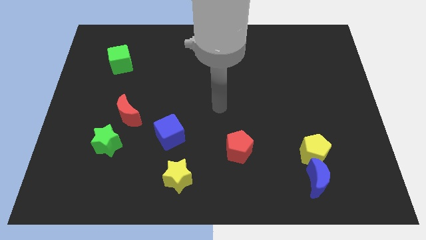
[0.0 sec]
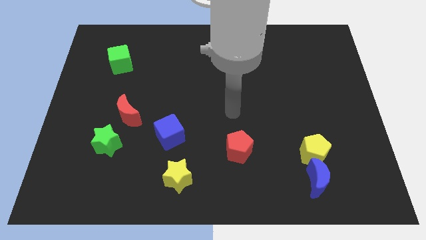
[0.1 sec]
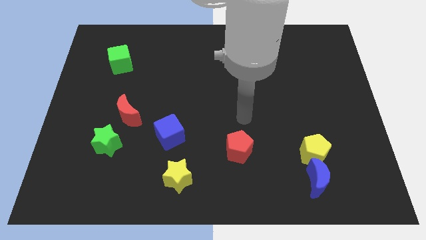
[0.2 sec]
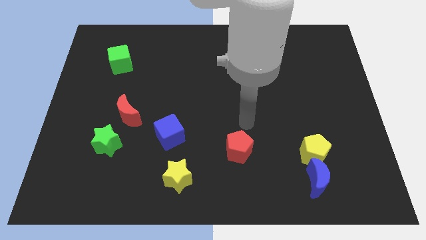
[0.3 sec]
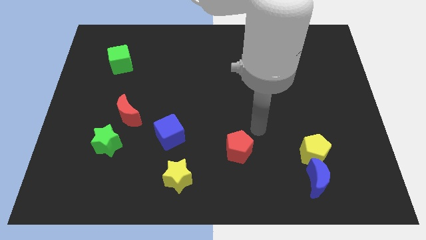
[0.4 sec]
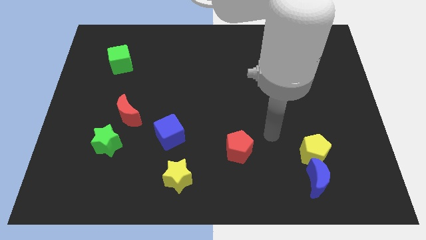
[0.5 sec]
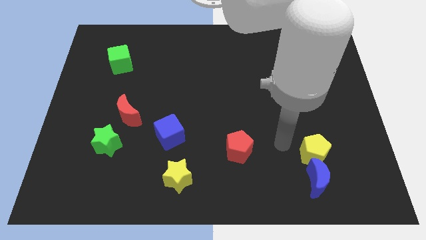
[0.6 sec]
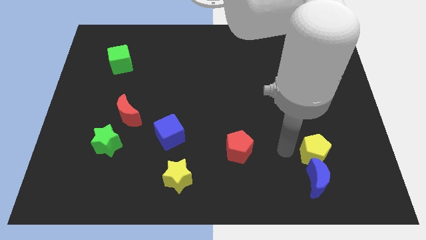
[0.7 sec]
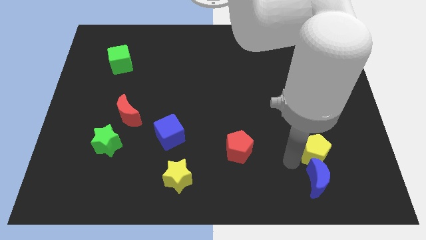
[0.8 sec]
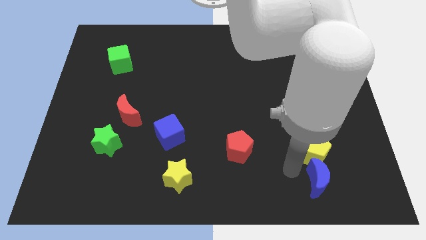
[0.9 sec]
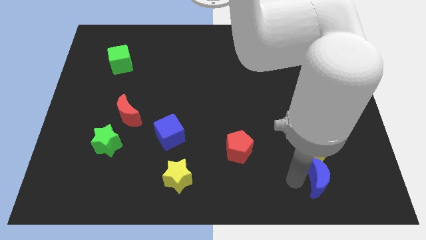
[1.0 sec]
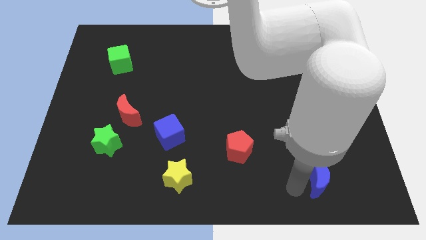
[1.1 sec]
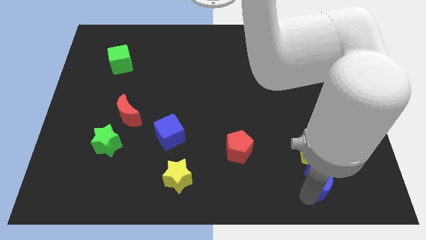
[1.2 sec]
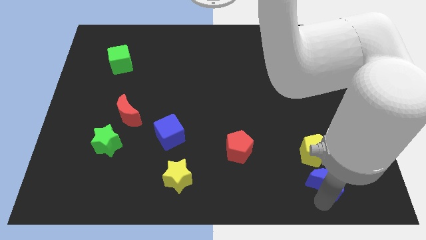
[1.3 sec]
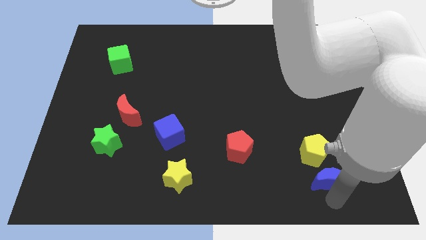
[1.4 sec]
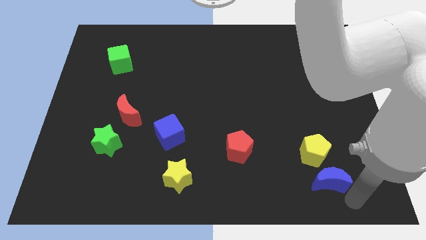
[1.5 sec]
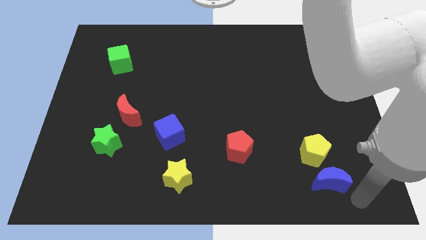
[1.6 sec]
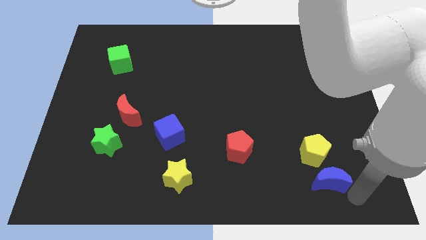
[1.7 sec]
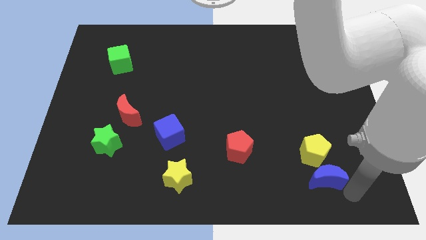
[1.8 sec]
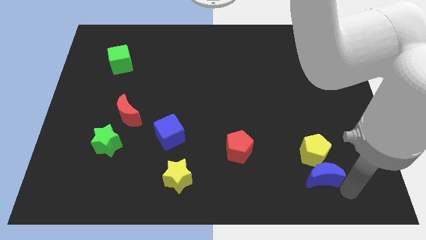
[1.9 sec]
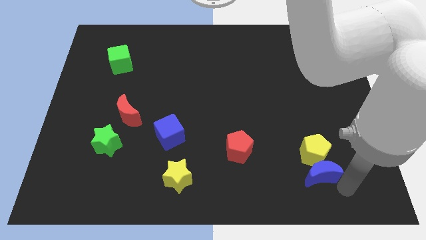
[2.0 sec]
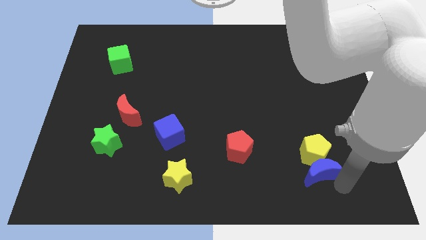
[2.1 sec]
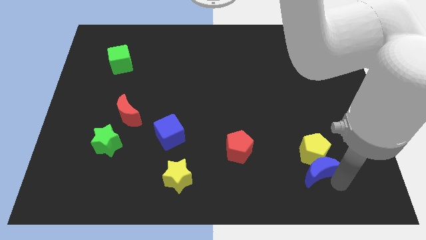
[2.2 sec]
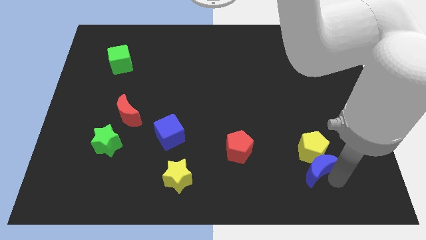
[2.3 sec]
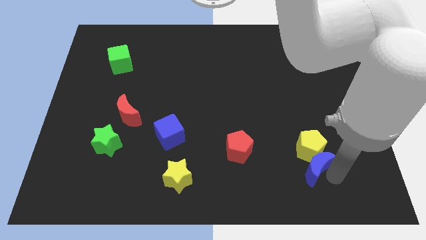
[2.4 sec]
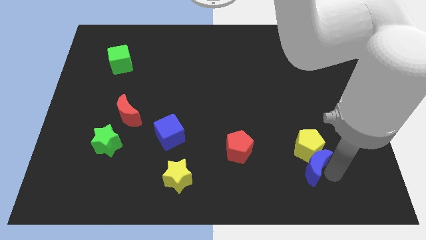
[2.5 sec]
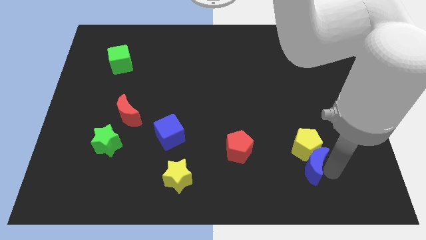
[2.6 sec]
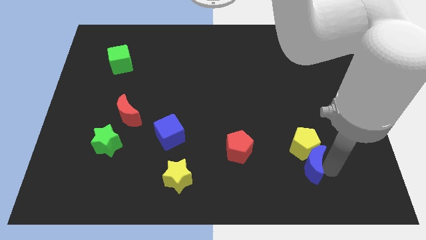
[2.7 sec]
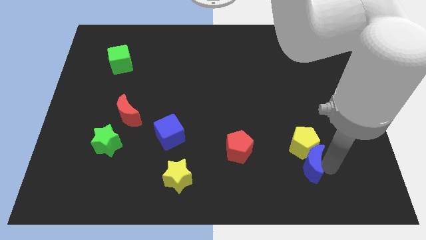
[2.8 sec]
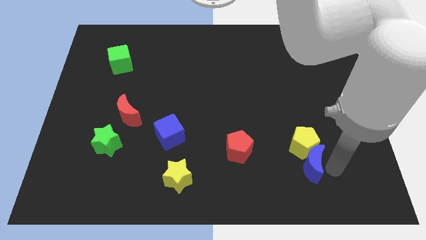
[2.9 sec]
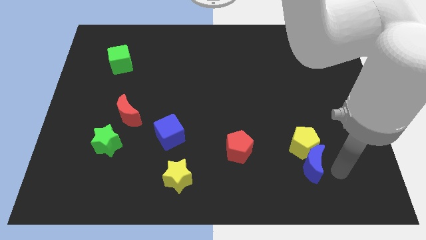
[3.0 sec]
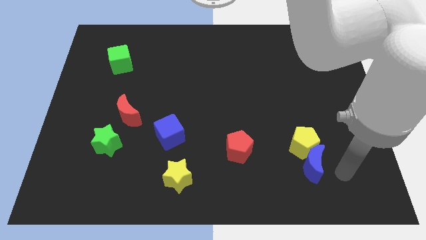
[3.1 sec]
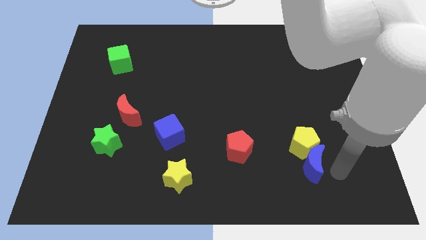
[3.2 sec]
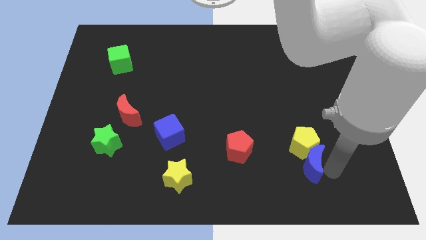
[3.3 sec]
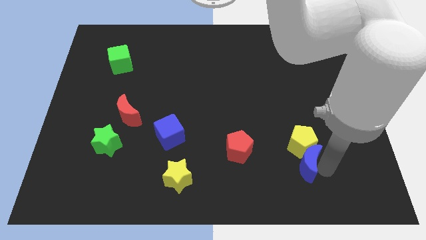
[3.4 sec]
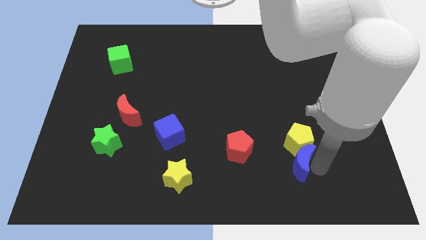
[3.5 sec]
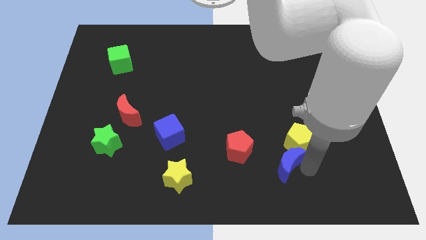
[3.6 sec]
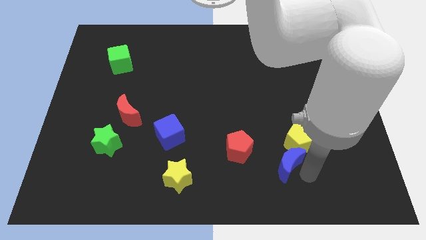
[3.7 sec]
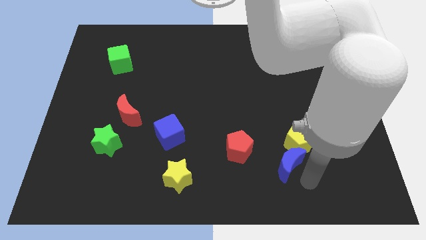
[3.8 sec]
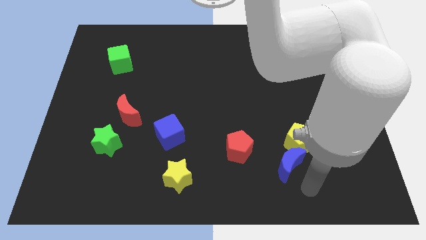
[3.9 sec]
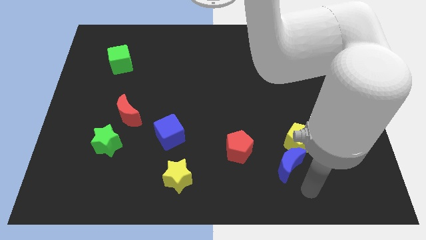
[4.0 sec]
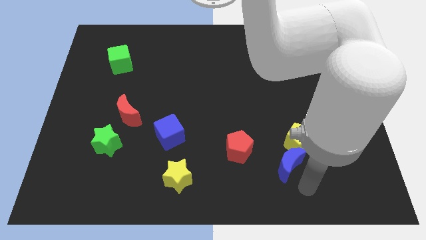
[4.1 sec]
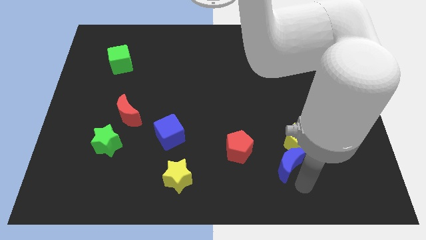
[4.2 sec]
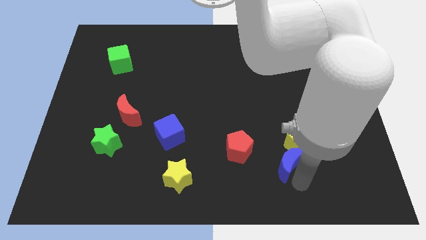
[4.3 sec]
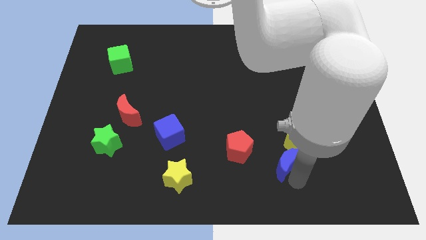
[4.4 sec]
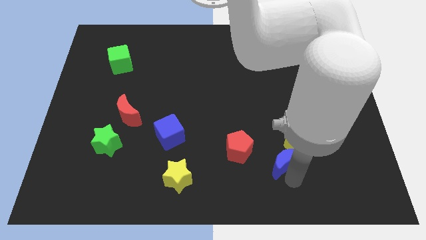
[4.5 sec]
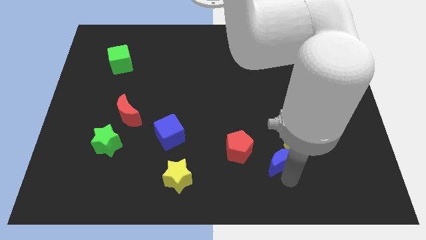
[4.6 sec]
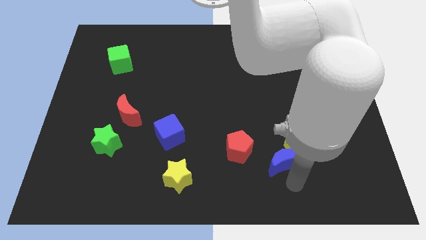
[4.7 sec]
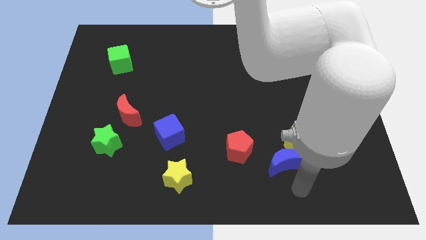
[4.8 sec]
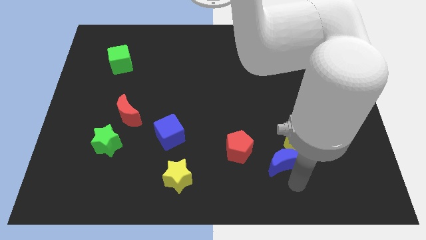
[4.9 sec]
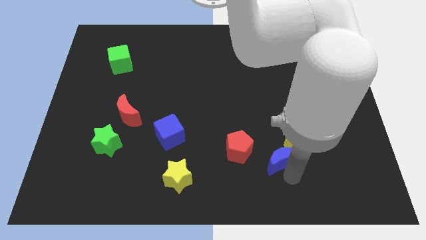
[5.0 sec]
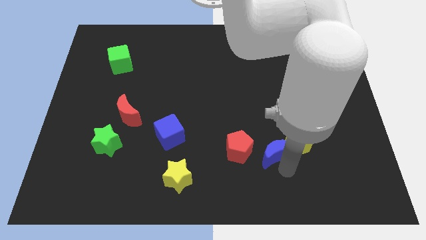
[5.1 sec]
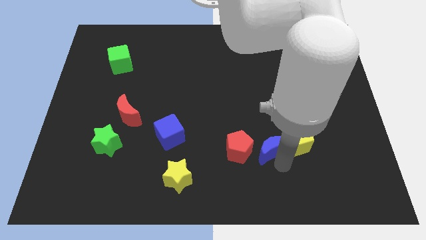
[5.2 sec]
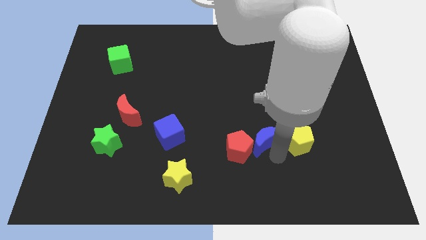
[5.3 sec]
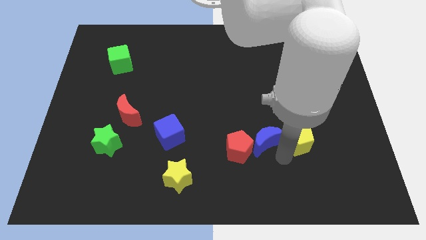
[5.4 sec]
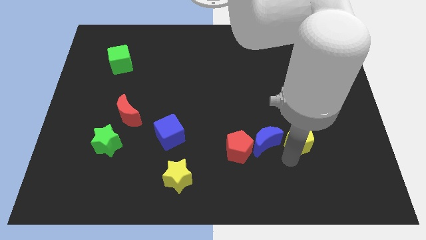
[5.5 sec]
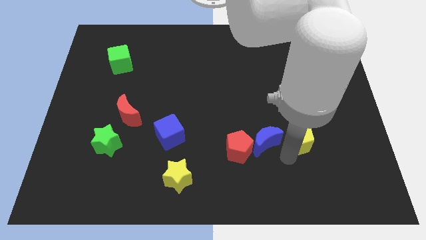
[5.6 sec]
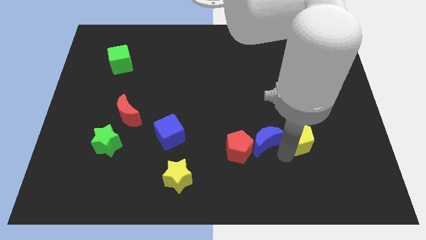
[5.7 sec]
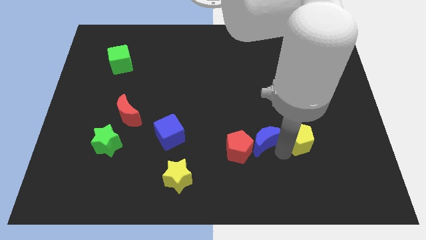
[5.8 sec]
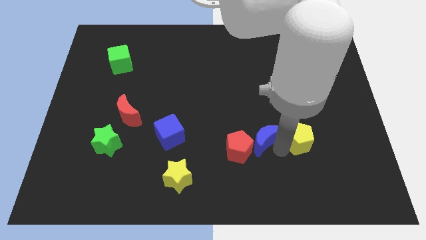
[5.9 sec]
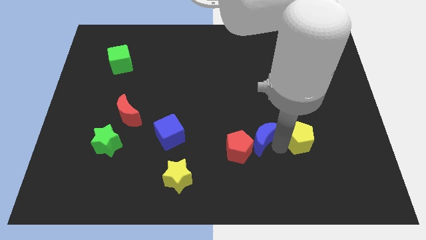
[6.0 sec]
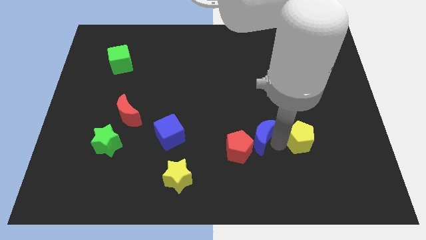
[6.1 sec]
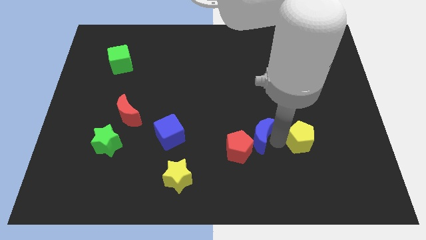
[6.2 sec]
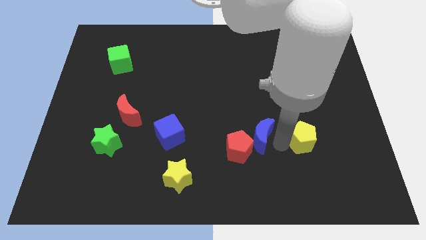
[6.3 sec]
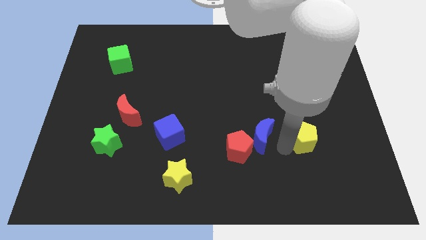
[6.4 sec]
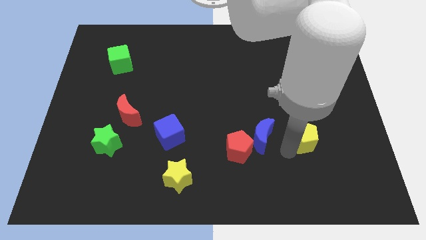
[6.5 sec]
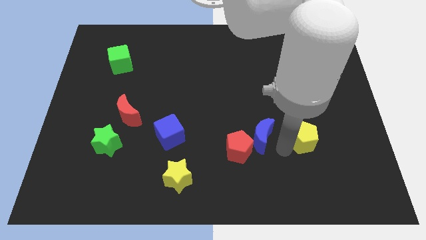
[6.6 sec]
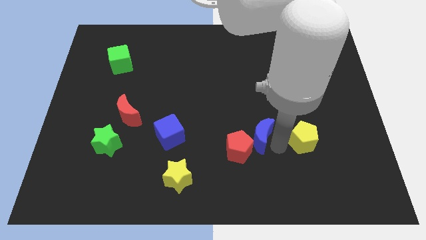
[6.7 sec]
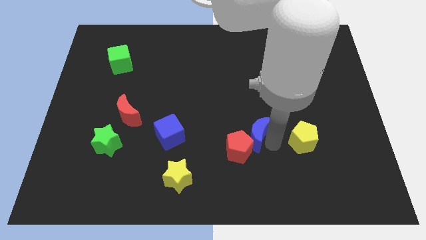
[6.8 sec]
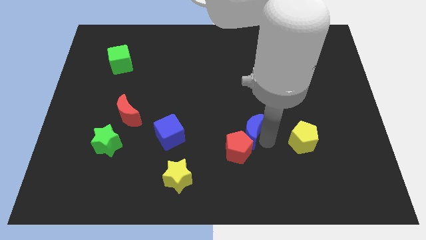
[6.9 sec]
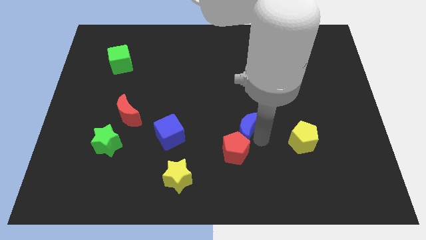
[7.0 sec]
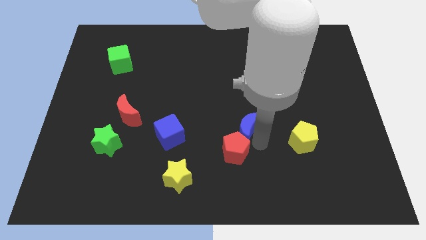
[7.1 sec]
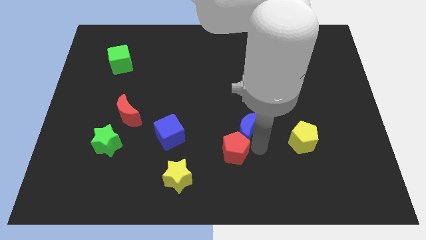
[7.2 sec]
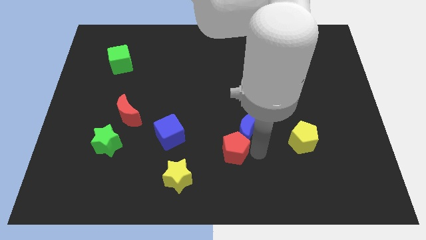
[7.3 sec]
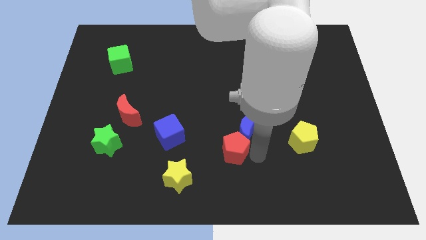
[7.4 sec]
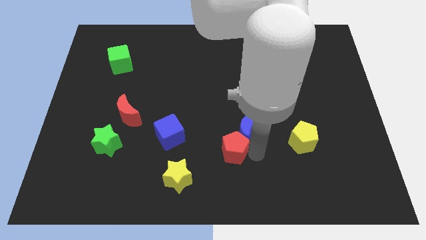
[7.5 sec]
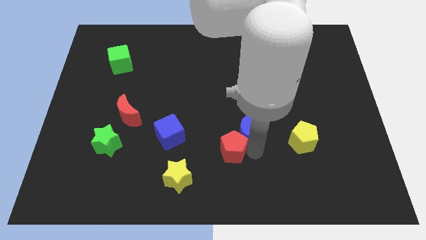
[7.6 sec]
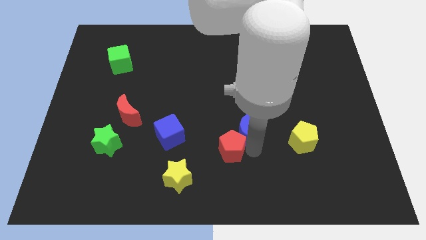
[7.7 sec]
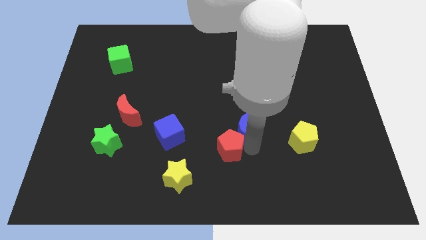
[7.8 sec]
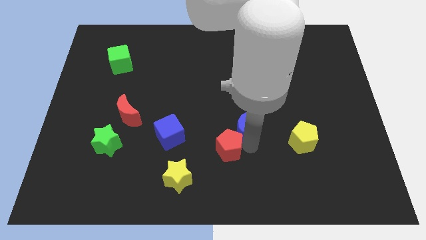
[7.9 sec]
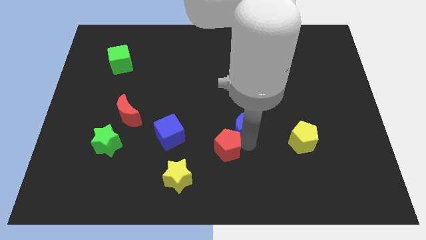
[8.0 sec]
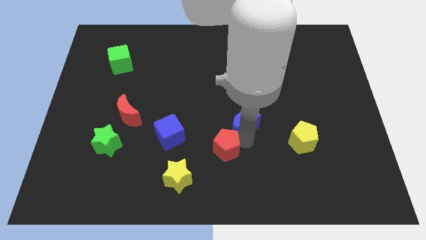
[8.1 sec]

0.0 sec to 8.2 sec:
push the blue moon diagonally up and to the left

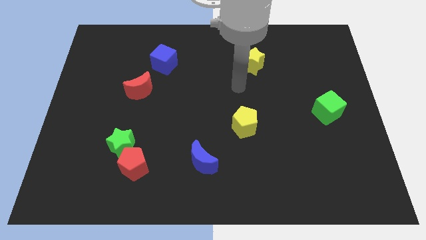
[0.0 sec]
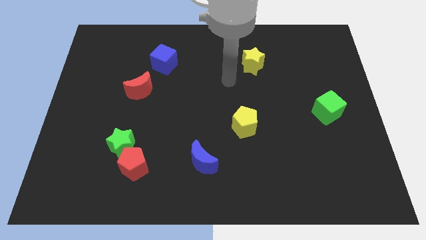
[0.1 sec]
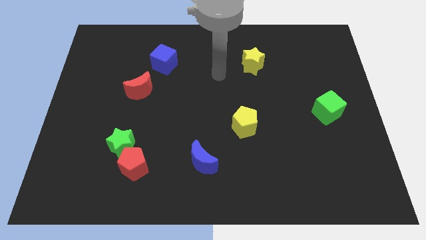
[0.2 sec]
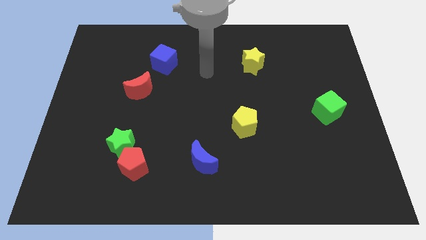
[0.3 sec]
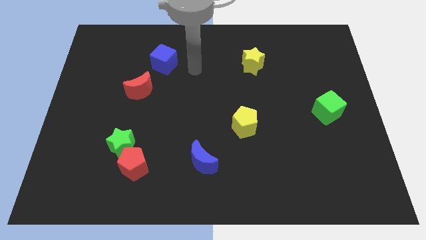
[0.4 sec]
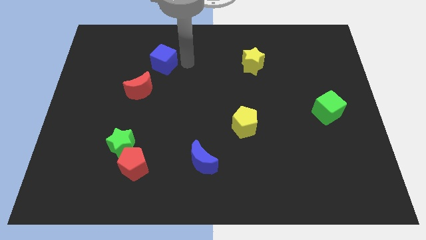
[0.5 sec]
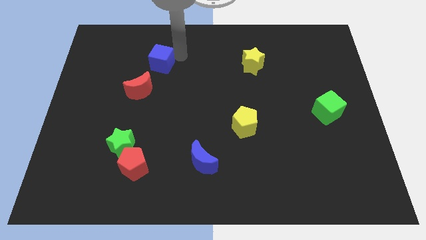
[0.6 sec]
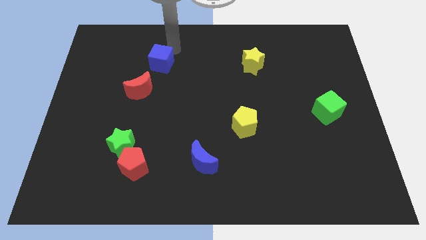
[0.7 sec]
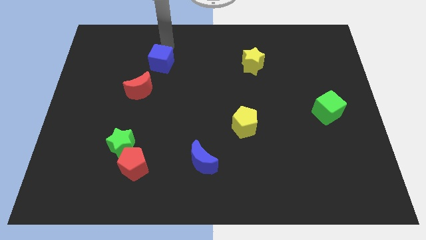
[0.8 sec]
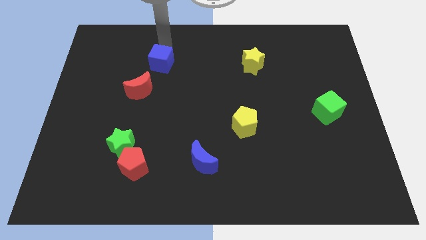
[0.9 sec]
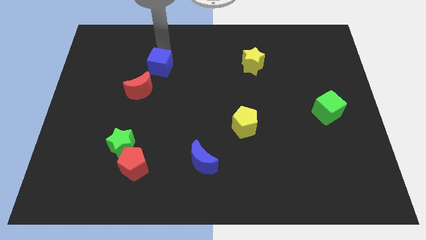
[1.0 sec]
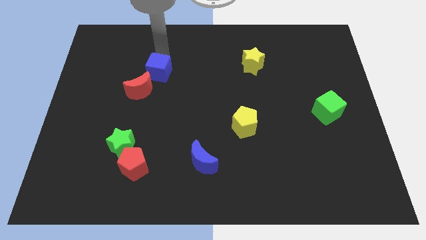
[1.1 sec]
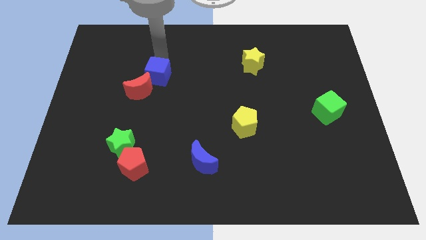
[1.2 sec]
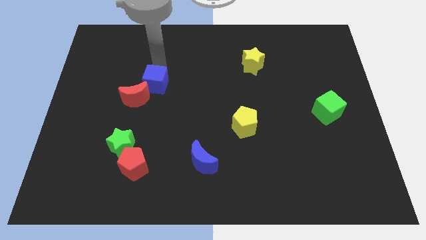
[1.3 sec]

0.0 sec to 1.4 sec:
slide the blue cube a little bit downwards
